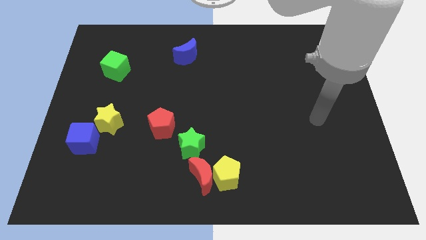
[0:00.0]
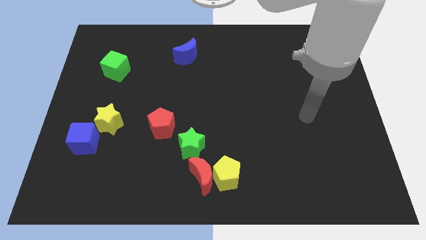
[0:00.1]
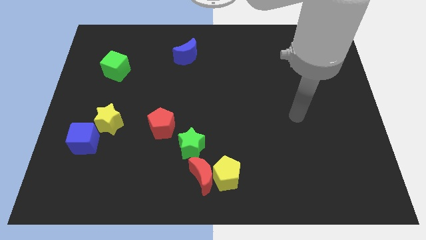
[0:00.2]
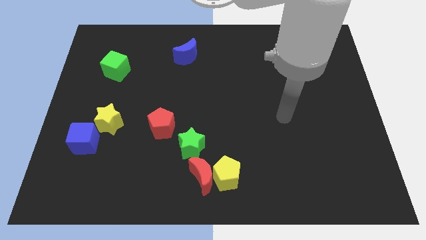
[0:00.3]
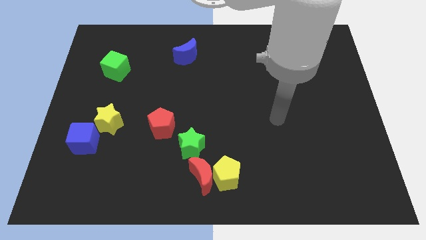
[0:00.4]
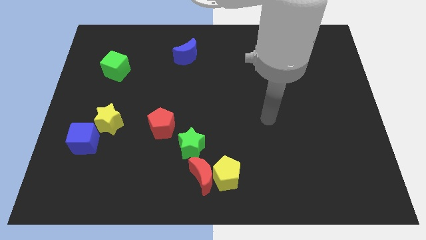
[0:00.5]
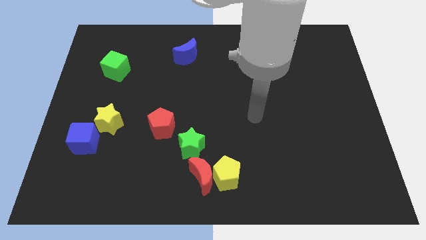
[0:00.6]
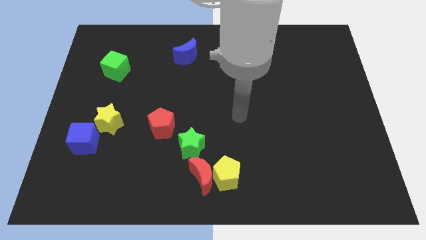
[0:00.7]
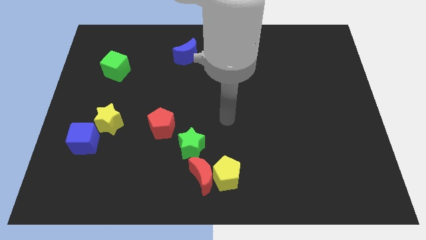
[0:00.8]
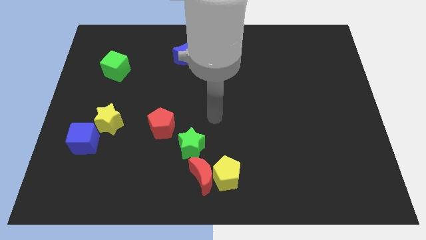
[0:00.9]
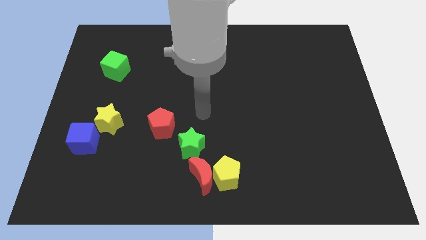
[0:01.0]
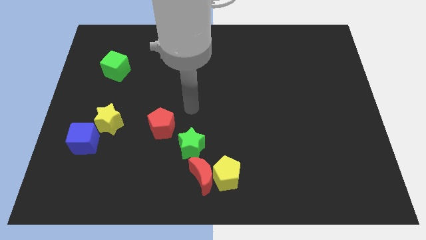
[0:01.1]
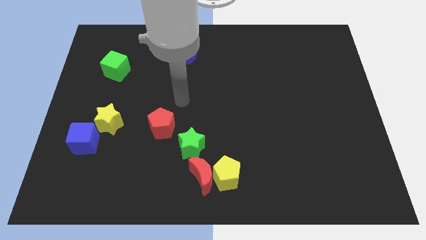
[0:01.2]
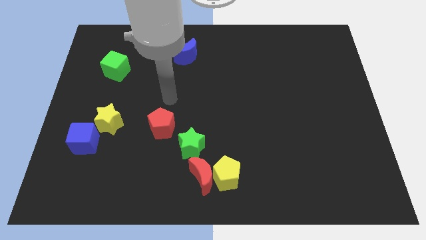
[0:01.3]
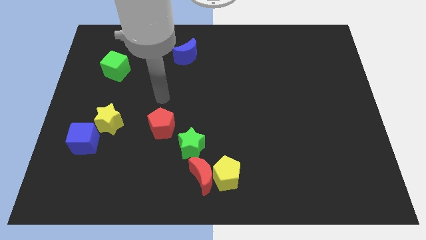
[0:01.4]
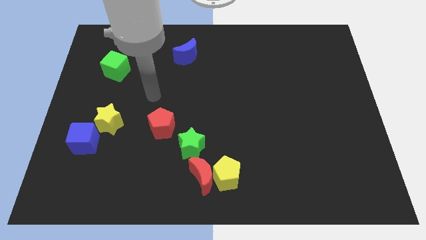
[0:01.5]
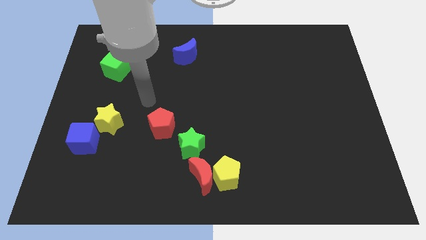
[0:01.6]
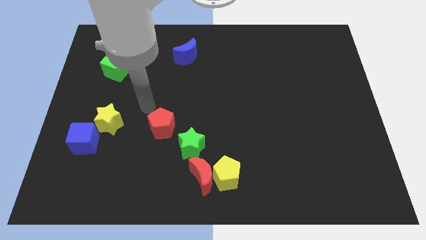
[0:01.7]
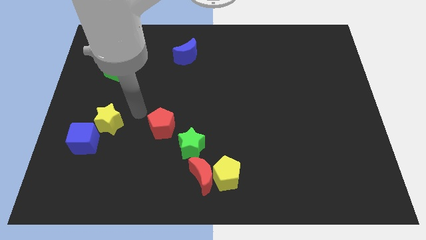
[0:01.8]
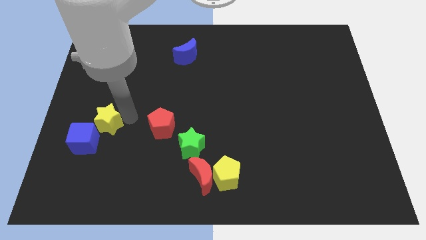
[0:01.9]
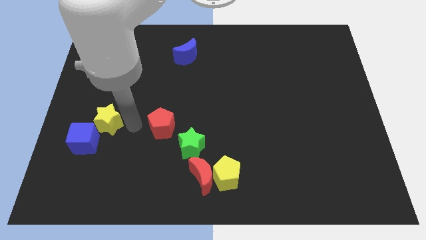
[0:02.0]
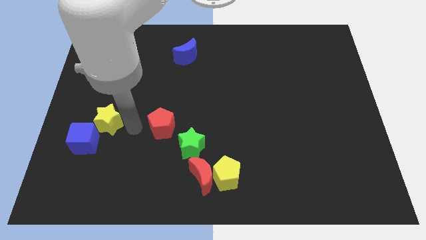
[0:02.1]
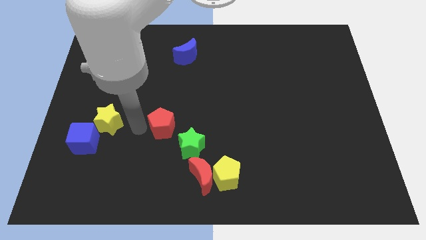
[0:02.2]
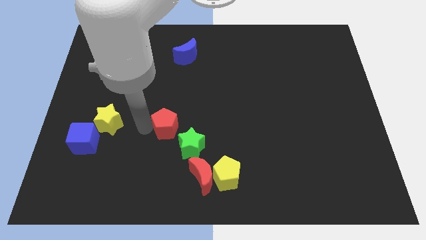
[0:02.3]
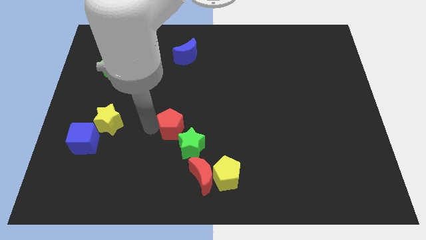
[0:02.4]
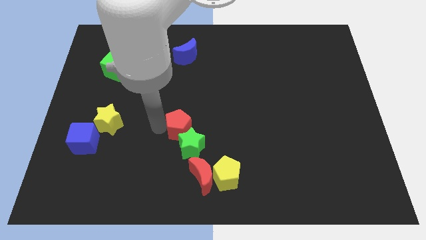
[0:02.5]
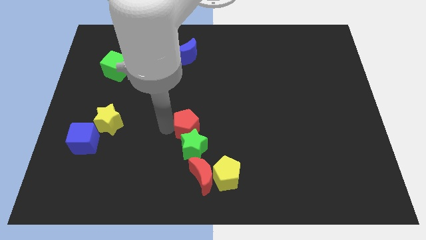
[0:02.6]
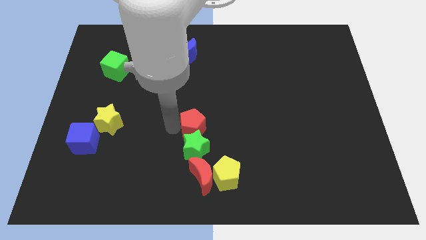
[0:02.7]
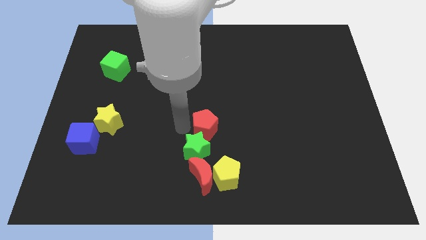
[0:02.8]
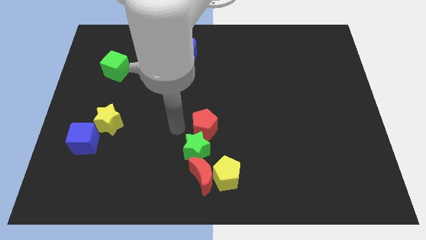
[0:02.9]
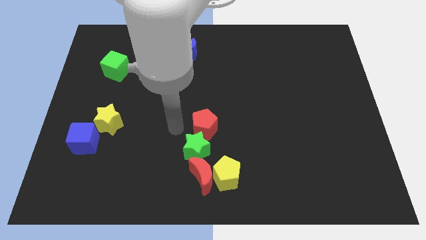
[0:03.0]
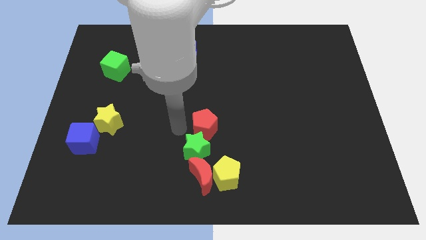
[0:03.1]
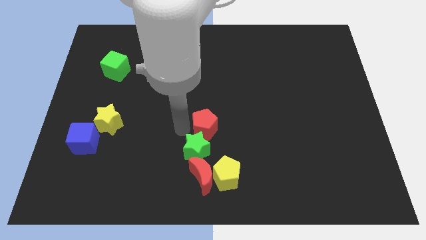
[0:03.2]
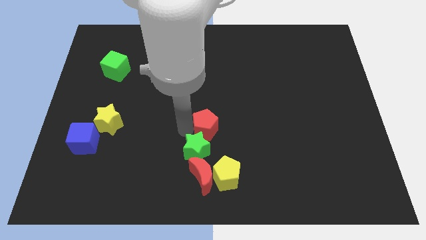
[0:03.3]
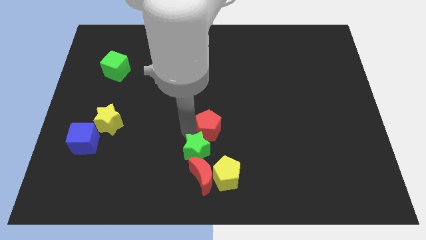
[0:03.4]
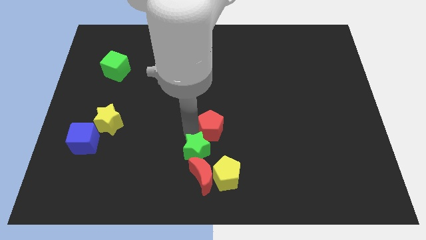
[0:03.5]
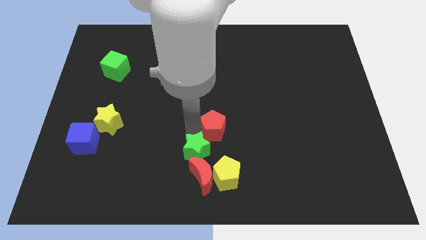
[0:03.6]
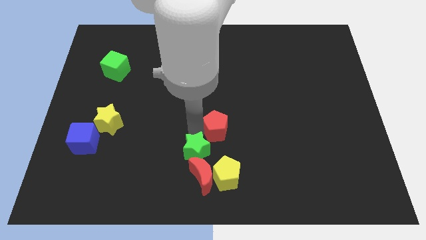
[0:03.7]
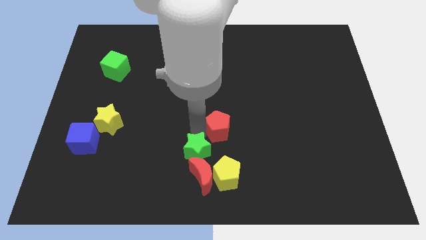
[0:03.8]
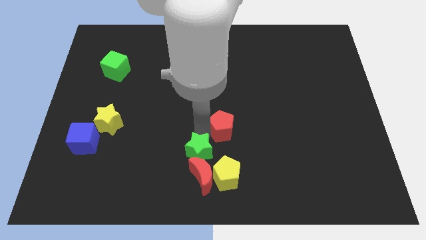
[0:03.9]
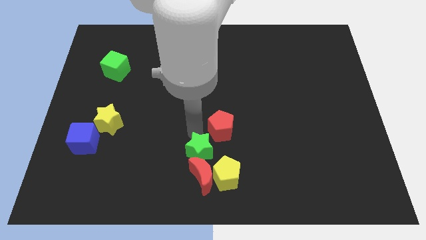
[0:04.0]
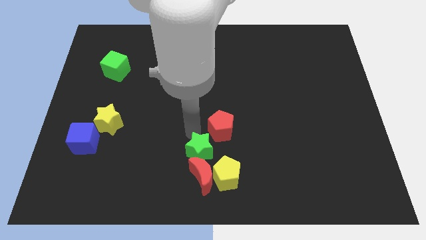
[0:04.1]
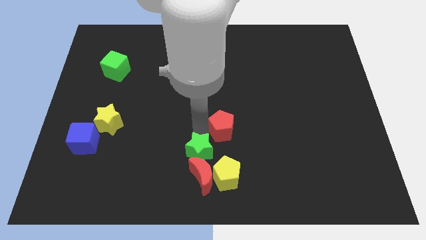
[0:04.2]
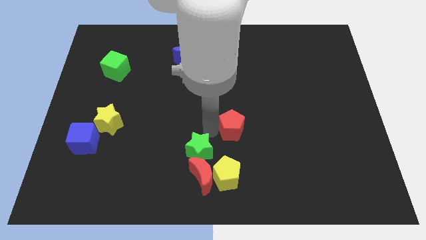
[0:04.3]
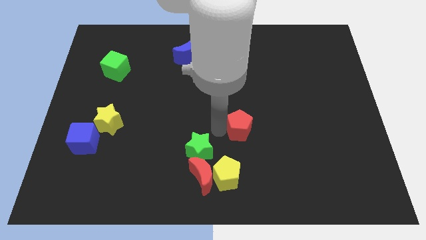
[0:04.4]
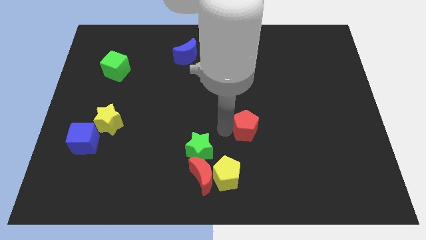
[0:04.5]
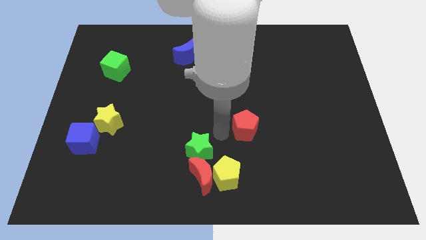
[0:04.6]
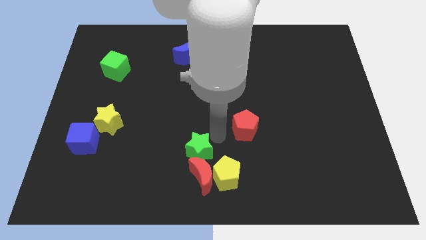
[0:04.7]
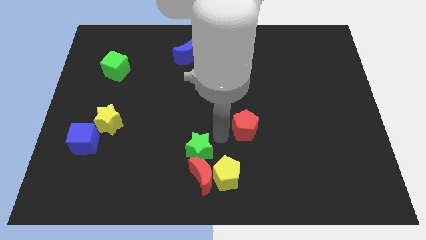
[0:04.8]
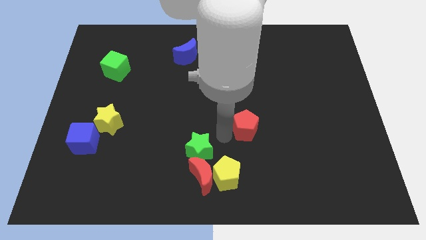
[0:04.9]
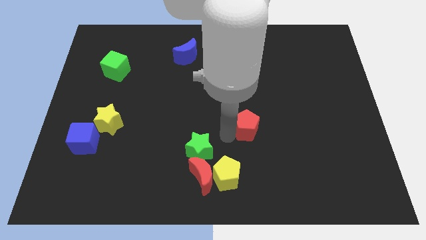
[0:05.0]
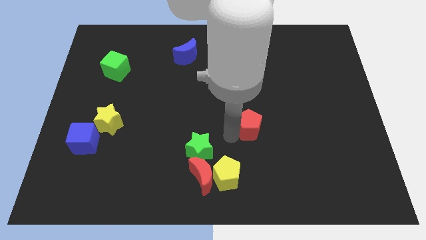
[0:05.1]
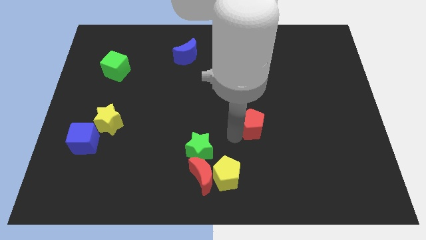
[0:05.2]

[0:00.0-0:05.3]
slide the red pentagon right

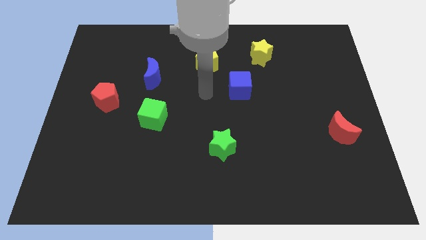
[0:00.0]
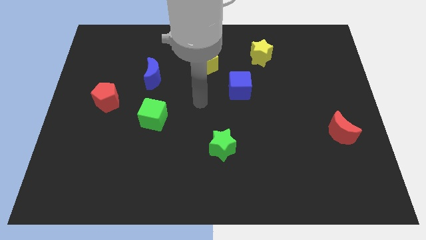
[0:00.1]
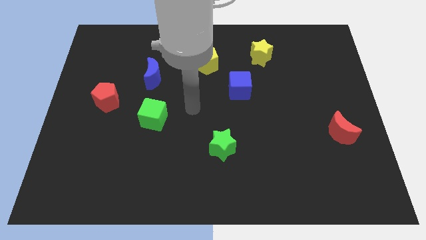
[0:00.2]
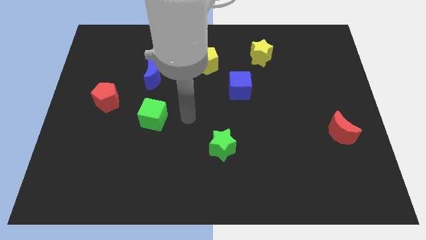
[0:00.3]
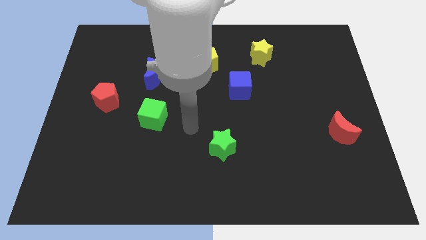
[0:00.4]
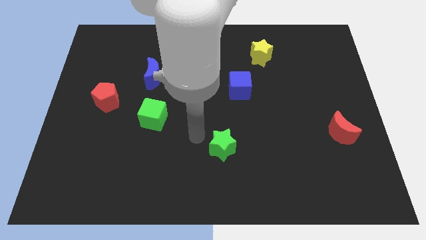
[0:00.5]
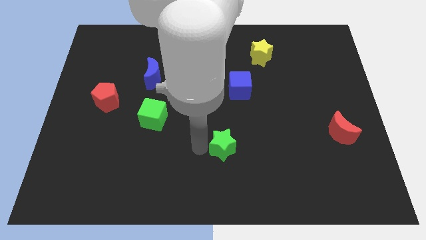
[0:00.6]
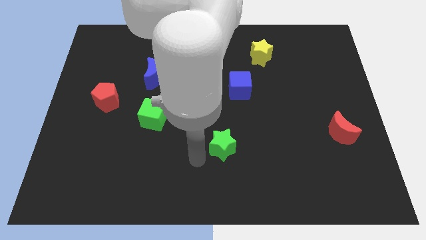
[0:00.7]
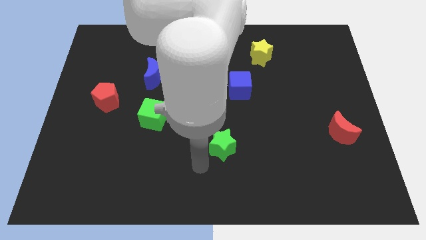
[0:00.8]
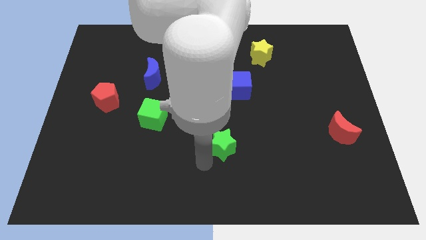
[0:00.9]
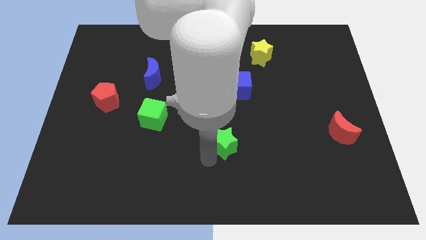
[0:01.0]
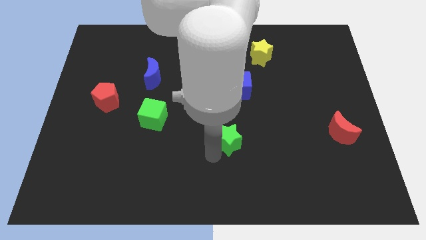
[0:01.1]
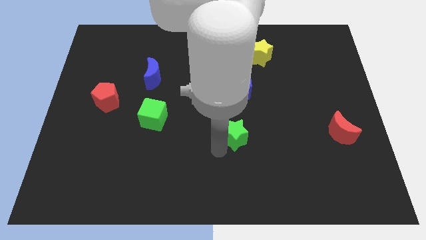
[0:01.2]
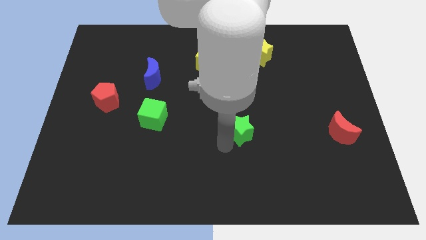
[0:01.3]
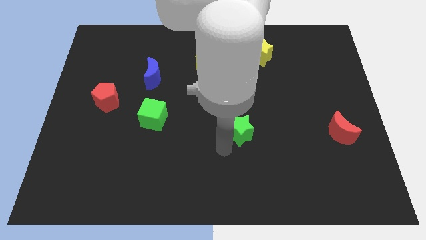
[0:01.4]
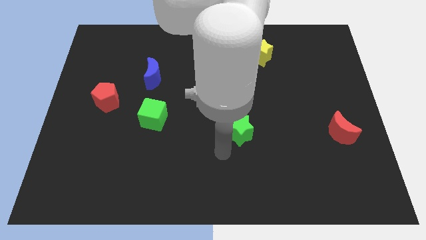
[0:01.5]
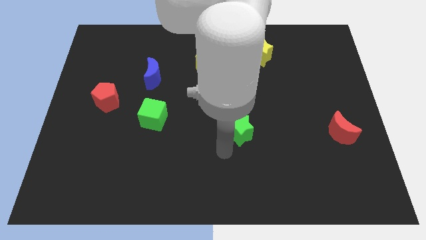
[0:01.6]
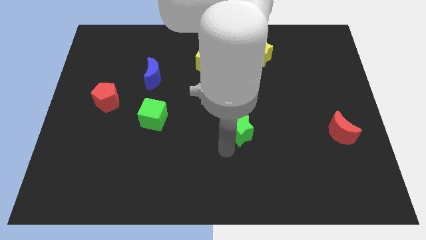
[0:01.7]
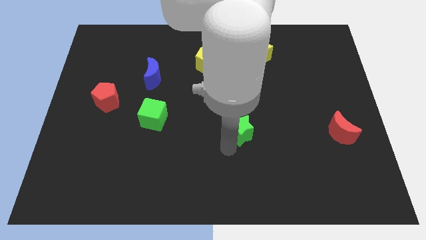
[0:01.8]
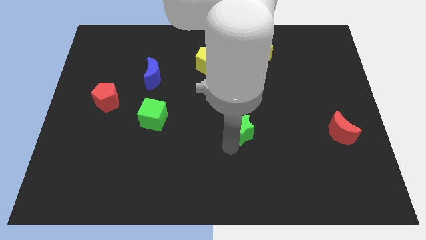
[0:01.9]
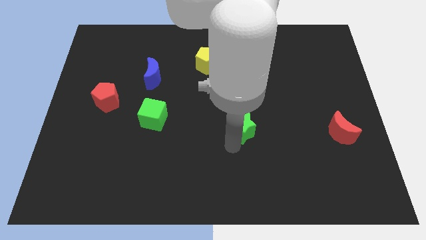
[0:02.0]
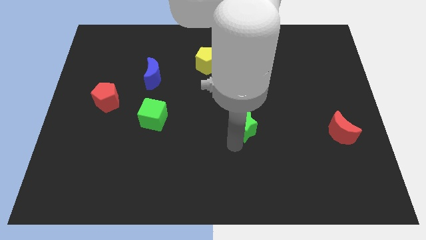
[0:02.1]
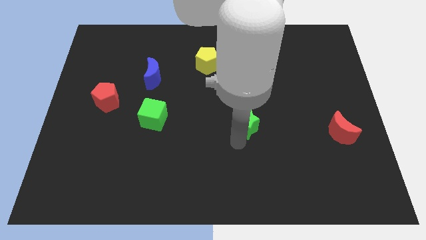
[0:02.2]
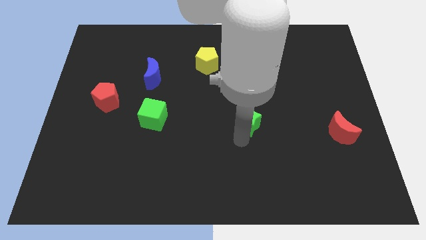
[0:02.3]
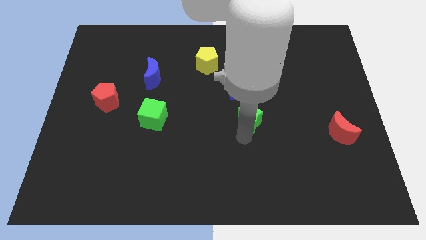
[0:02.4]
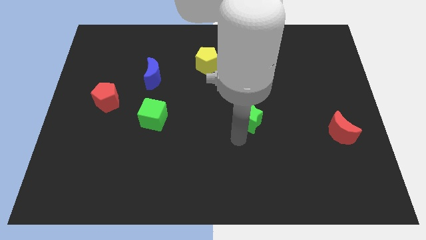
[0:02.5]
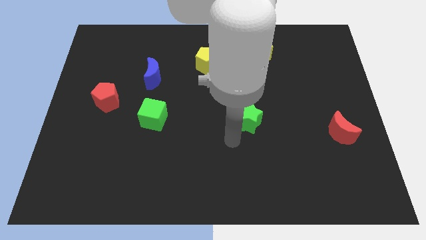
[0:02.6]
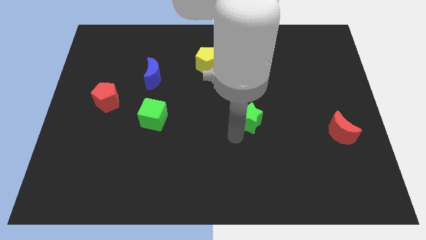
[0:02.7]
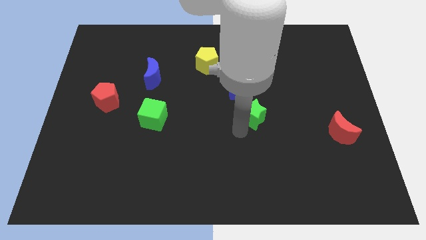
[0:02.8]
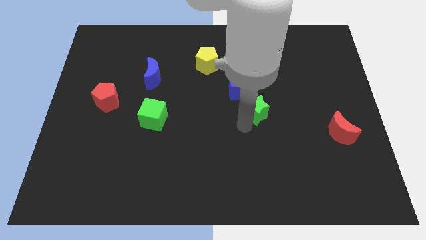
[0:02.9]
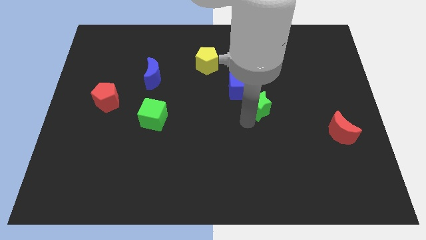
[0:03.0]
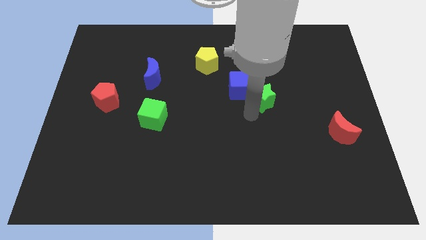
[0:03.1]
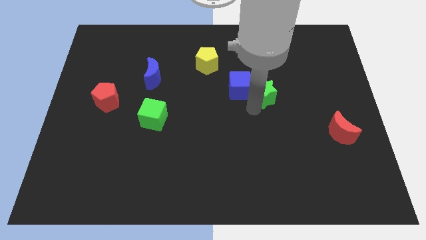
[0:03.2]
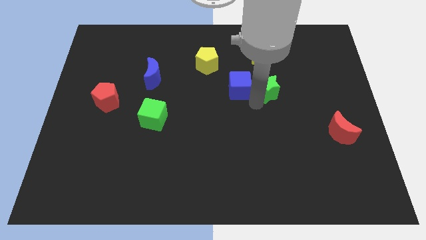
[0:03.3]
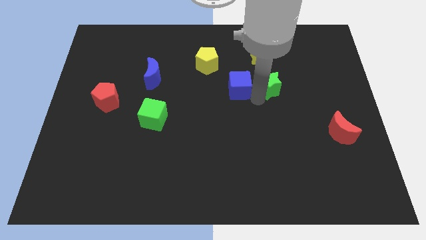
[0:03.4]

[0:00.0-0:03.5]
slide the green star up and to the right diagonally
